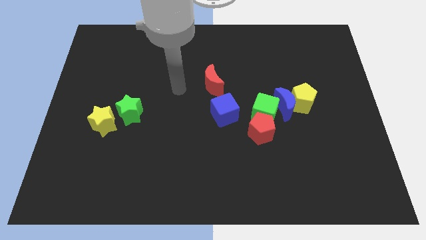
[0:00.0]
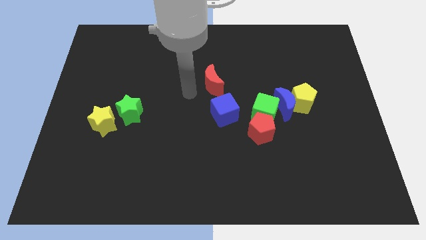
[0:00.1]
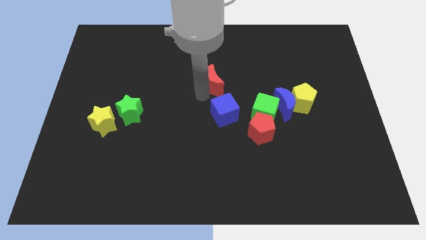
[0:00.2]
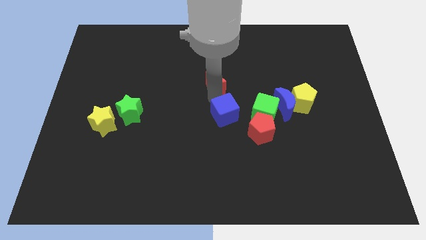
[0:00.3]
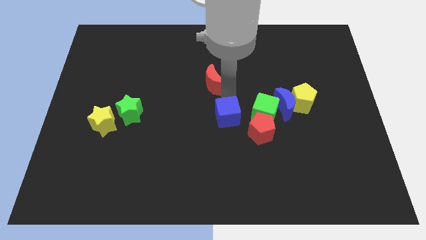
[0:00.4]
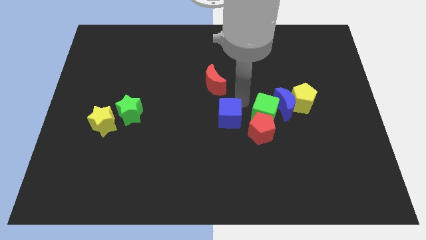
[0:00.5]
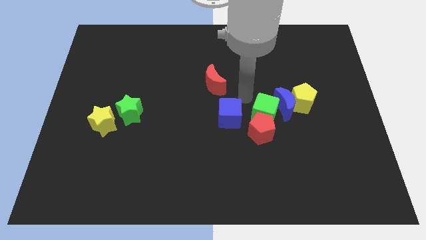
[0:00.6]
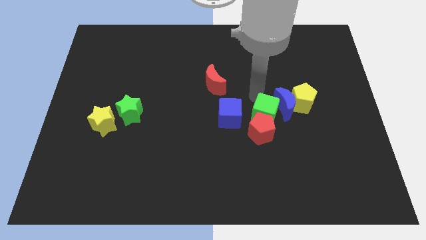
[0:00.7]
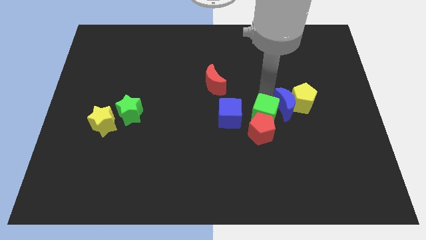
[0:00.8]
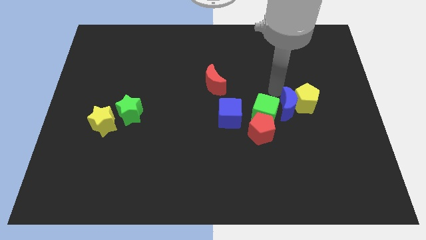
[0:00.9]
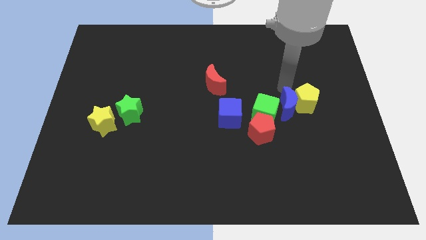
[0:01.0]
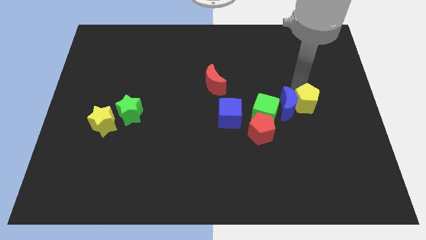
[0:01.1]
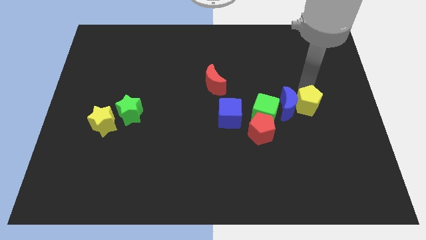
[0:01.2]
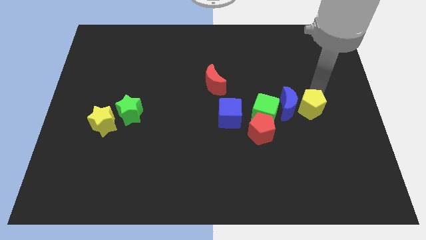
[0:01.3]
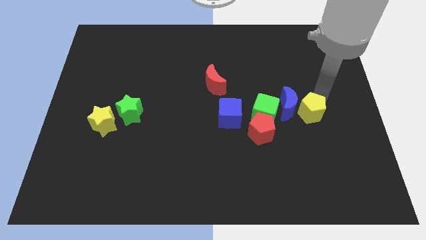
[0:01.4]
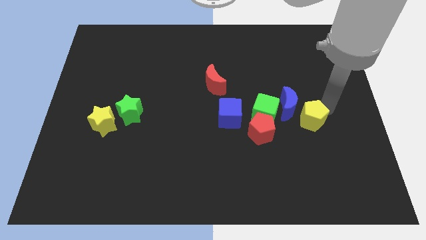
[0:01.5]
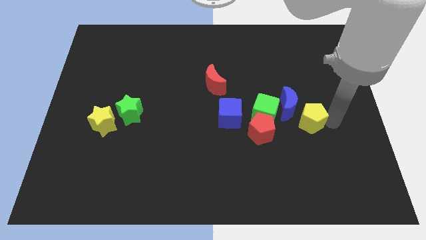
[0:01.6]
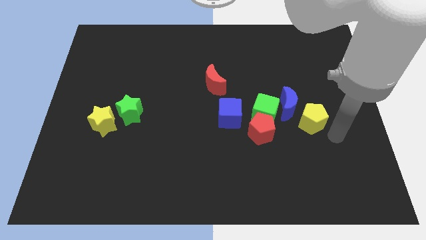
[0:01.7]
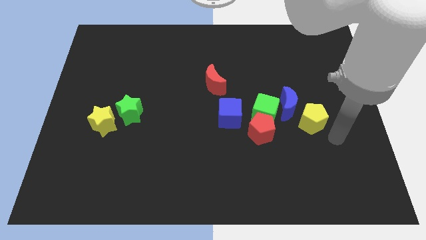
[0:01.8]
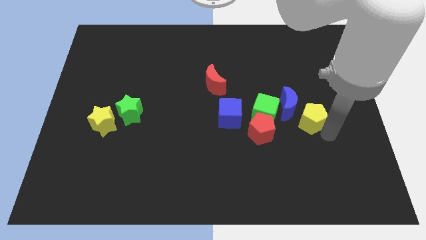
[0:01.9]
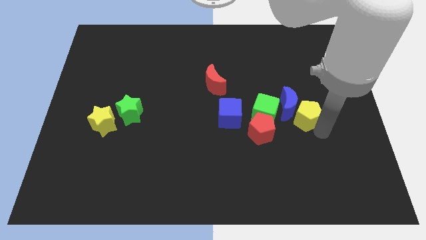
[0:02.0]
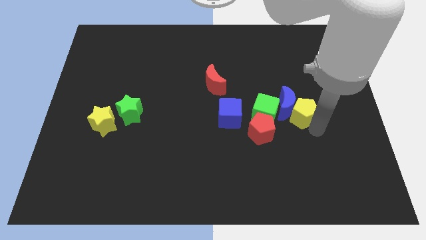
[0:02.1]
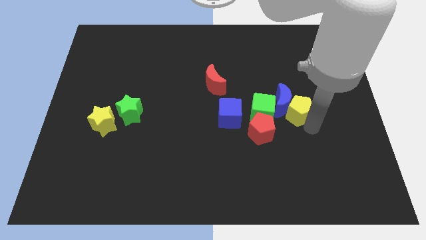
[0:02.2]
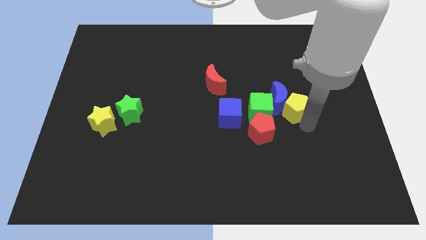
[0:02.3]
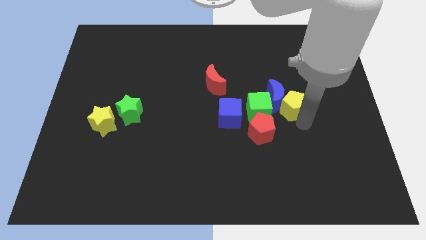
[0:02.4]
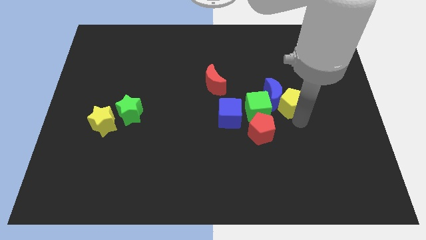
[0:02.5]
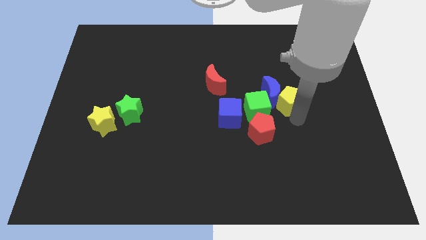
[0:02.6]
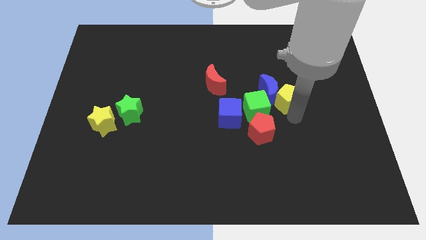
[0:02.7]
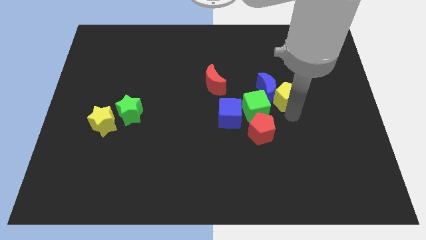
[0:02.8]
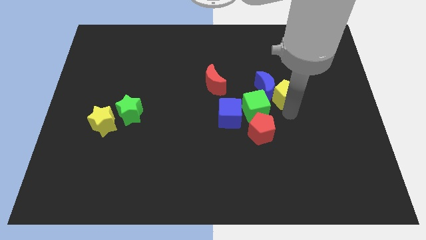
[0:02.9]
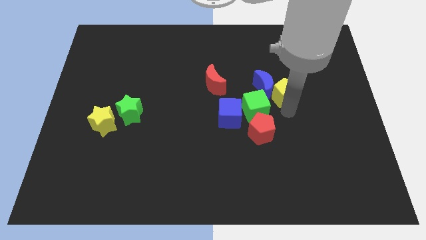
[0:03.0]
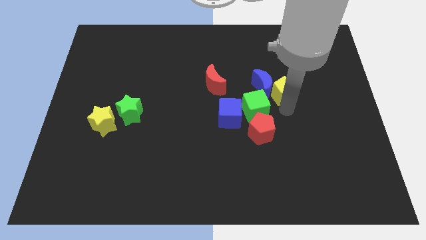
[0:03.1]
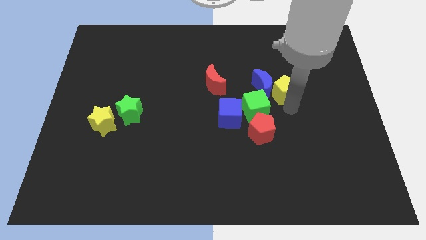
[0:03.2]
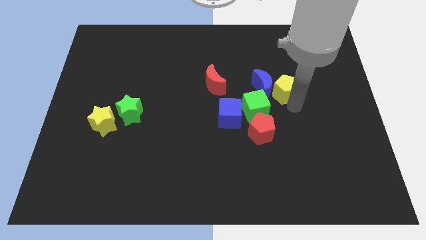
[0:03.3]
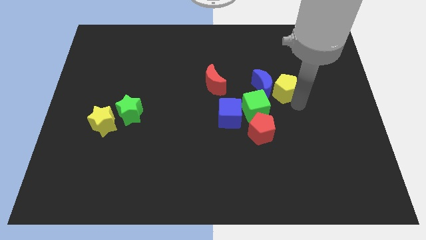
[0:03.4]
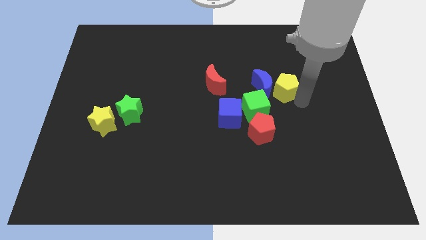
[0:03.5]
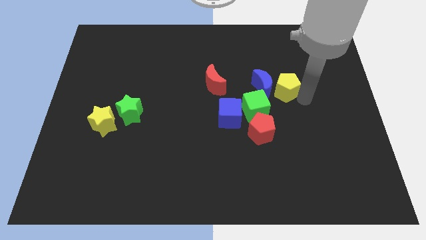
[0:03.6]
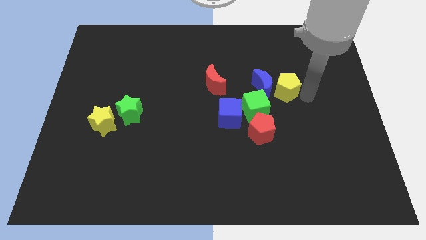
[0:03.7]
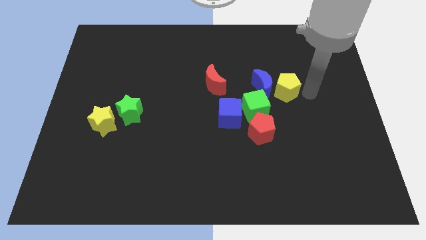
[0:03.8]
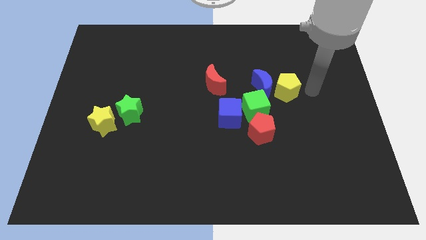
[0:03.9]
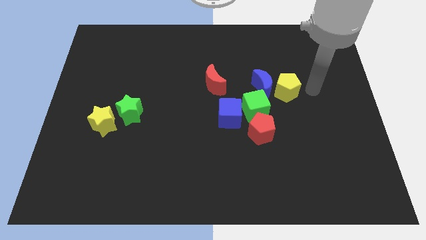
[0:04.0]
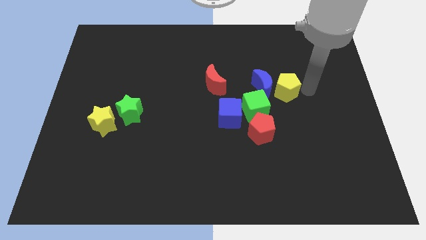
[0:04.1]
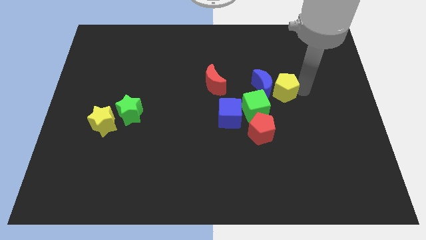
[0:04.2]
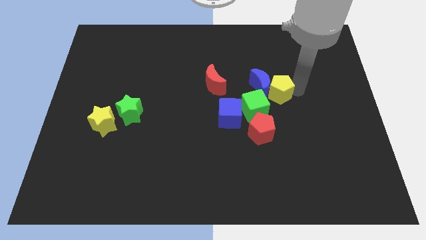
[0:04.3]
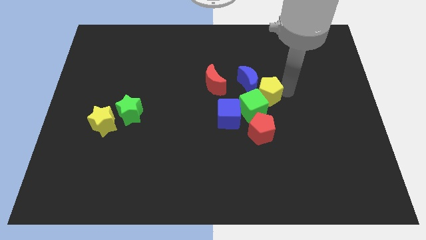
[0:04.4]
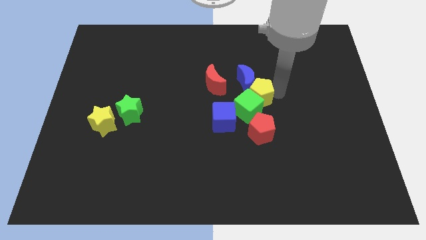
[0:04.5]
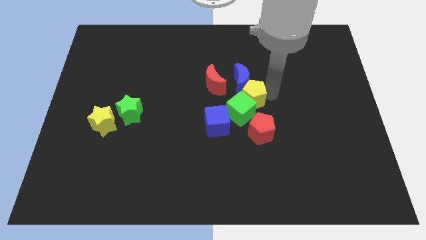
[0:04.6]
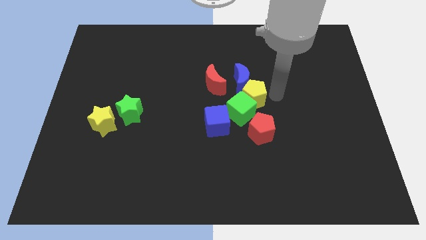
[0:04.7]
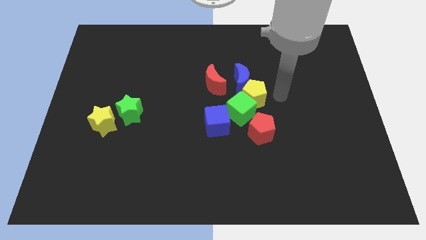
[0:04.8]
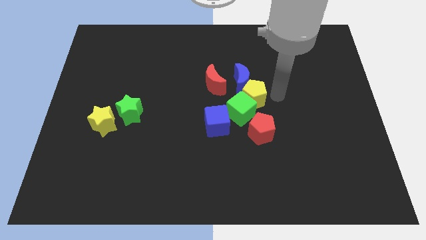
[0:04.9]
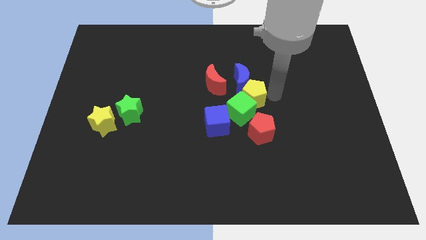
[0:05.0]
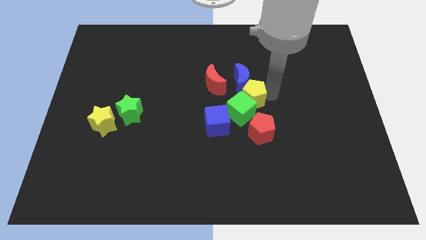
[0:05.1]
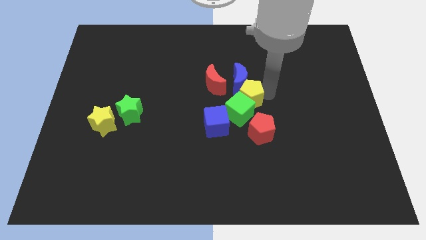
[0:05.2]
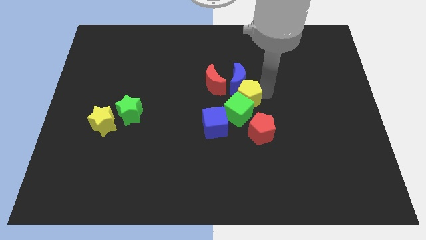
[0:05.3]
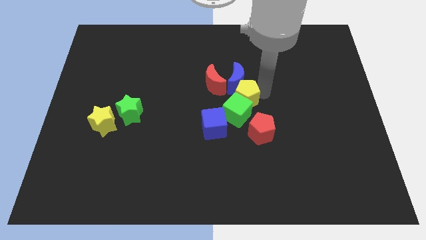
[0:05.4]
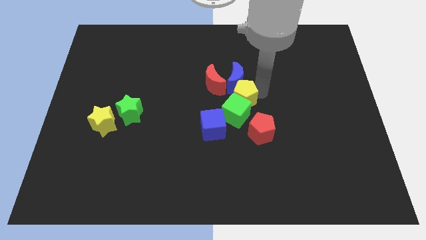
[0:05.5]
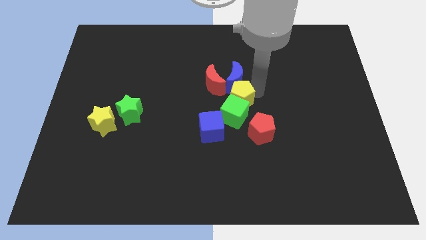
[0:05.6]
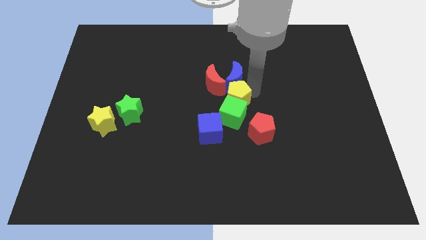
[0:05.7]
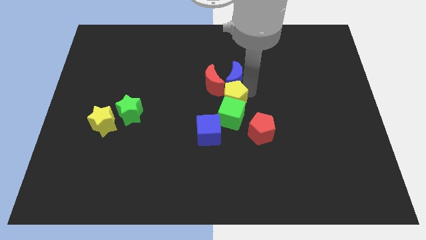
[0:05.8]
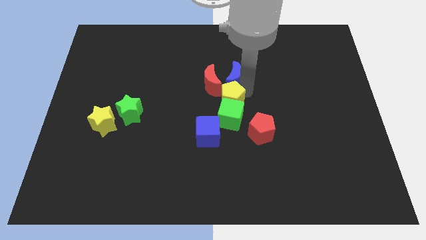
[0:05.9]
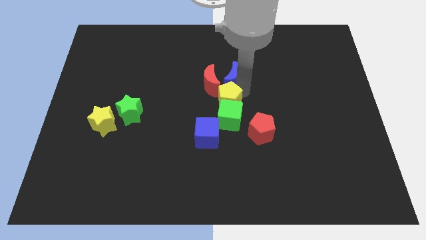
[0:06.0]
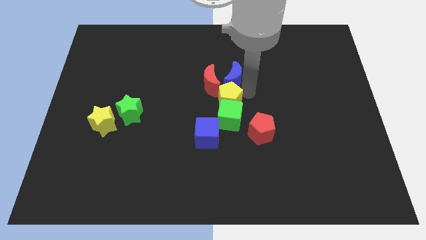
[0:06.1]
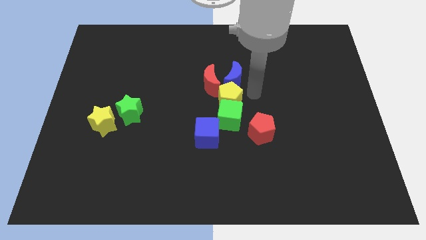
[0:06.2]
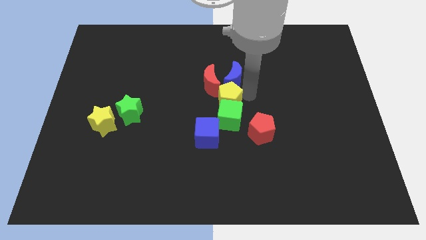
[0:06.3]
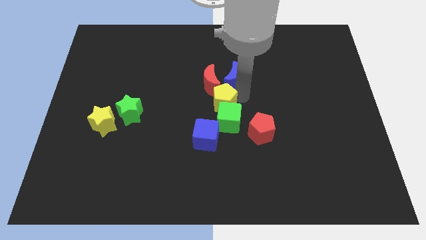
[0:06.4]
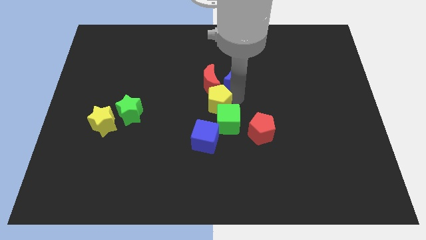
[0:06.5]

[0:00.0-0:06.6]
slide the yellow pentagon left

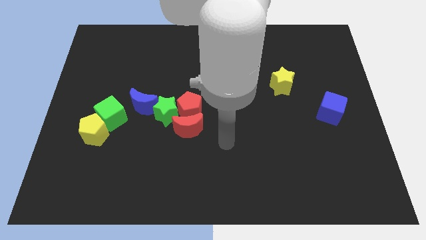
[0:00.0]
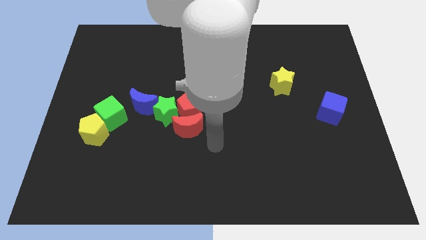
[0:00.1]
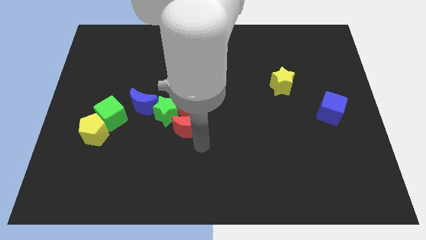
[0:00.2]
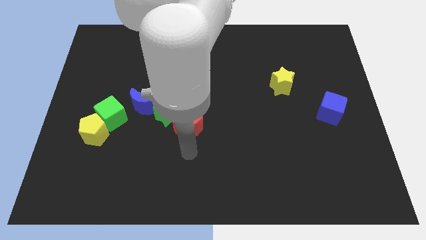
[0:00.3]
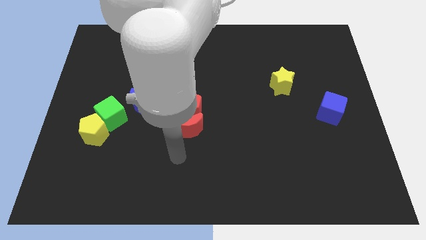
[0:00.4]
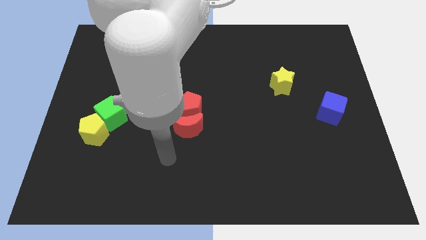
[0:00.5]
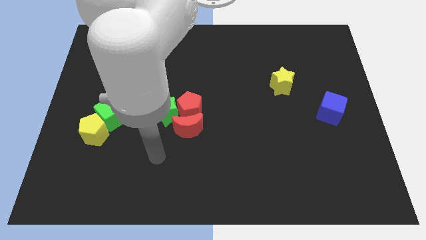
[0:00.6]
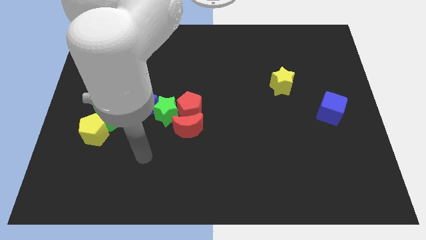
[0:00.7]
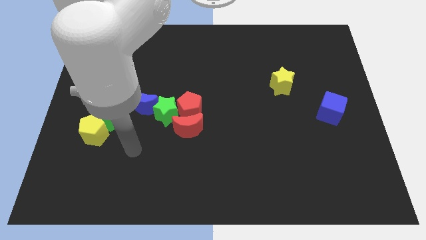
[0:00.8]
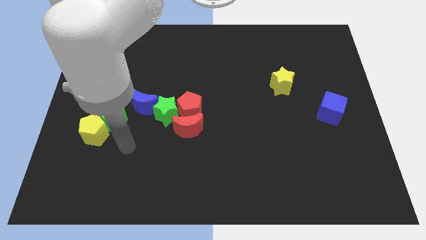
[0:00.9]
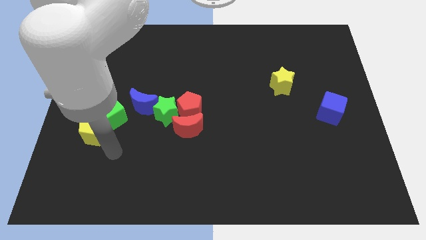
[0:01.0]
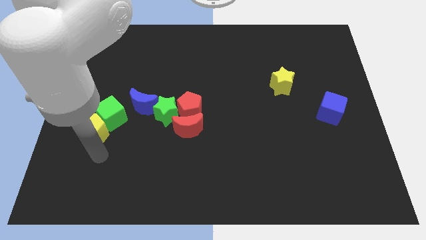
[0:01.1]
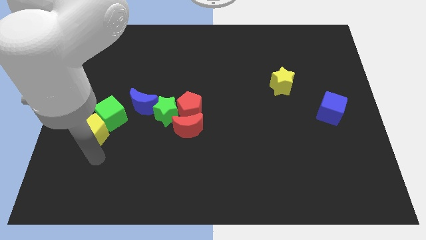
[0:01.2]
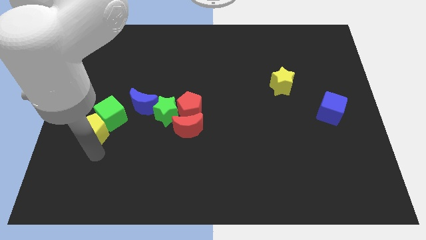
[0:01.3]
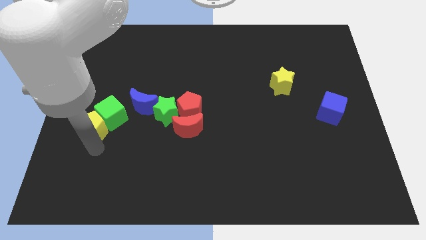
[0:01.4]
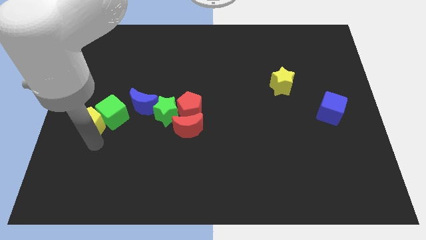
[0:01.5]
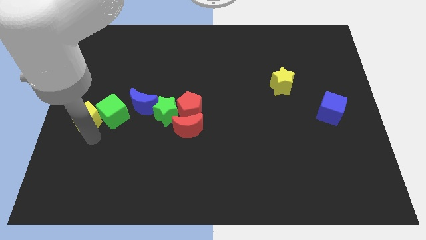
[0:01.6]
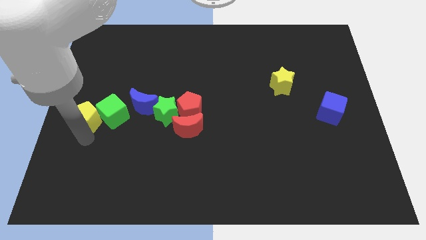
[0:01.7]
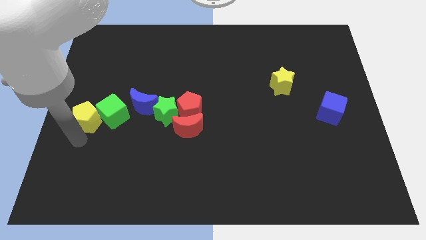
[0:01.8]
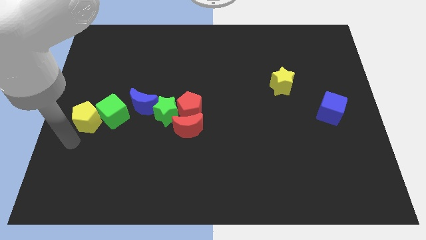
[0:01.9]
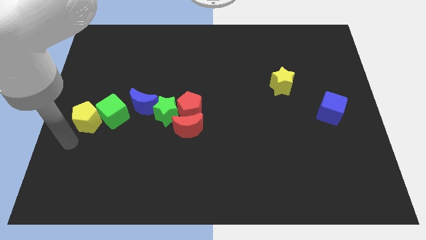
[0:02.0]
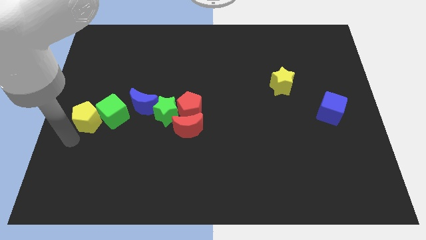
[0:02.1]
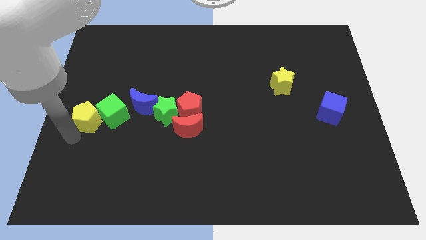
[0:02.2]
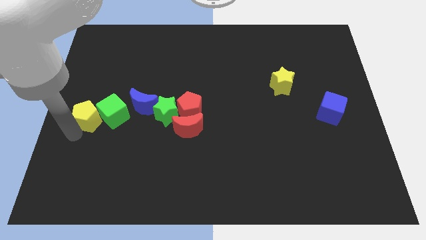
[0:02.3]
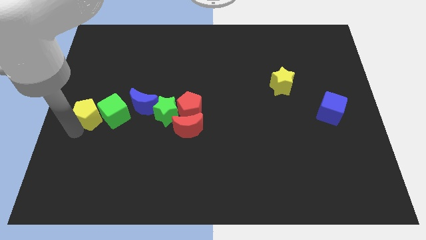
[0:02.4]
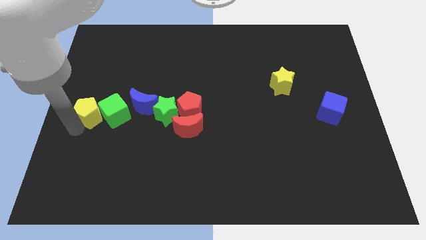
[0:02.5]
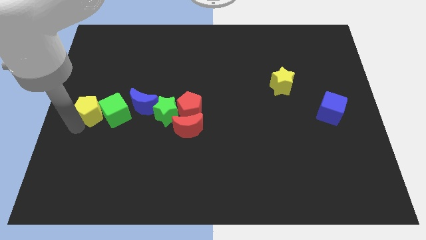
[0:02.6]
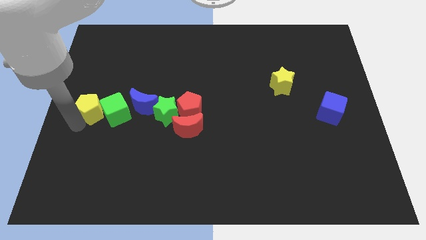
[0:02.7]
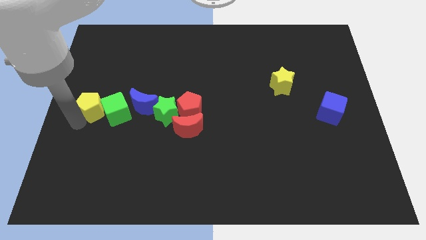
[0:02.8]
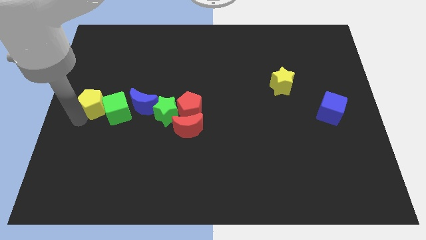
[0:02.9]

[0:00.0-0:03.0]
slightly push the yellow pentagon upwards
